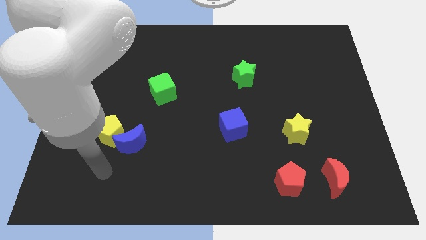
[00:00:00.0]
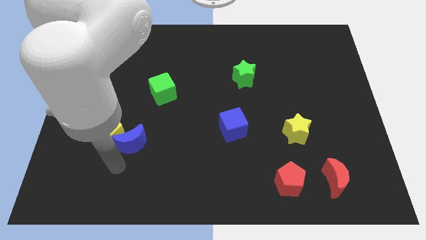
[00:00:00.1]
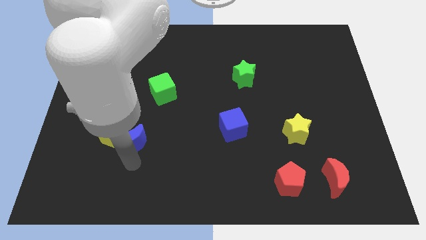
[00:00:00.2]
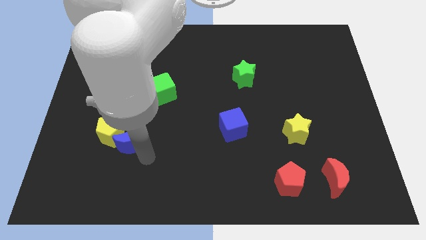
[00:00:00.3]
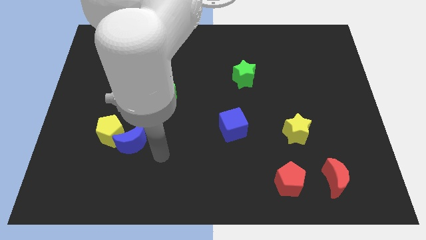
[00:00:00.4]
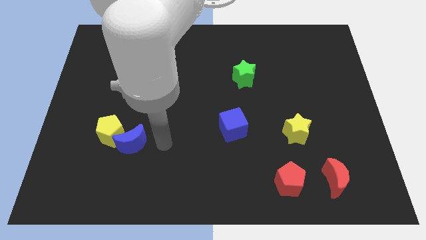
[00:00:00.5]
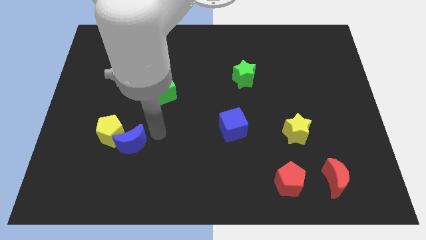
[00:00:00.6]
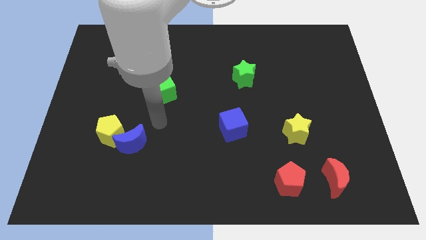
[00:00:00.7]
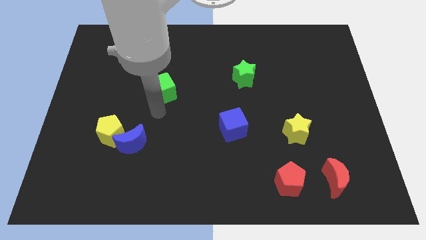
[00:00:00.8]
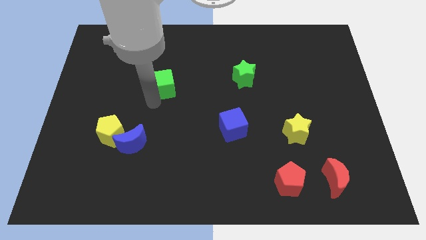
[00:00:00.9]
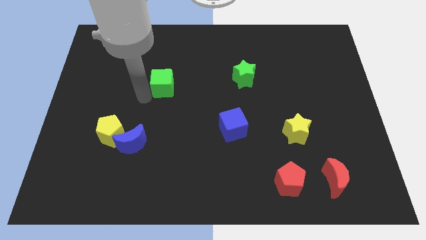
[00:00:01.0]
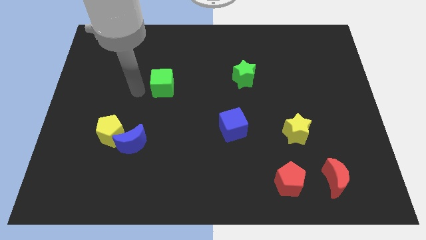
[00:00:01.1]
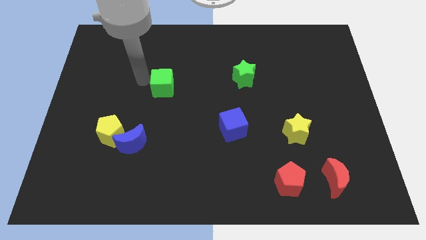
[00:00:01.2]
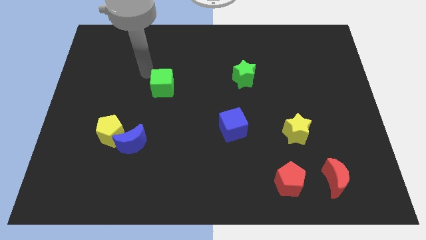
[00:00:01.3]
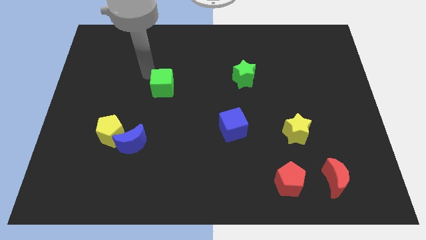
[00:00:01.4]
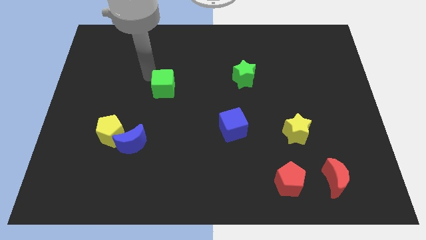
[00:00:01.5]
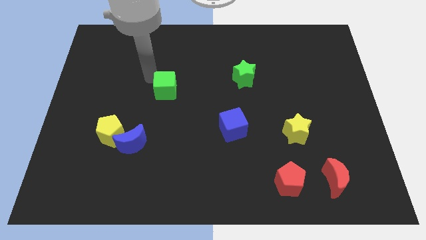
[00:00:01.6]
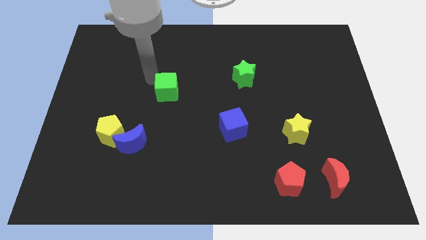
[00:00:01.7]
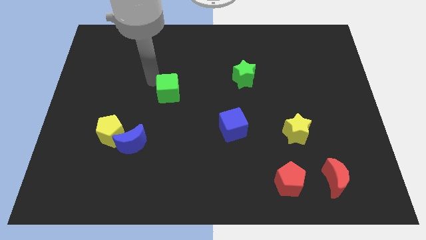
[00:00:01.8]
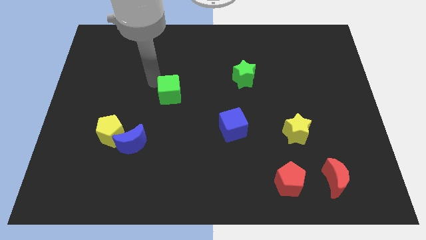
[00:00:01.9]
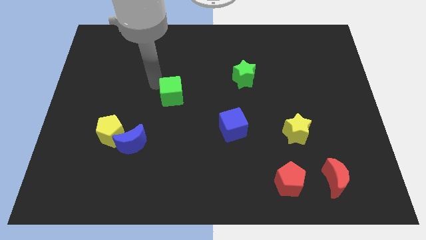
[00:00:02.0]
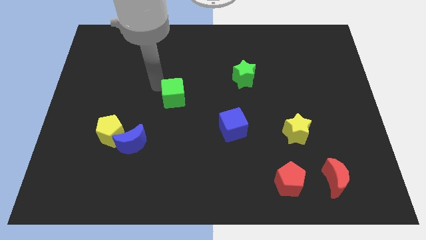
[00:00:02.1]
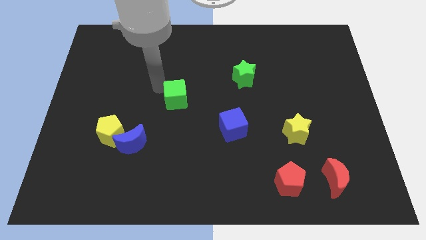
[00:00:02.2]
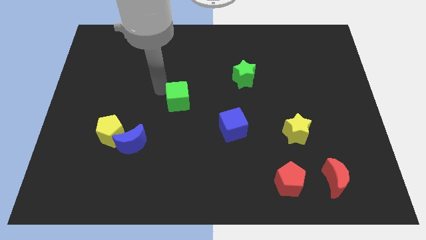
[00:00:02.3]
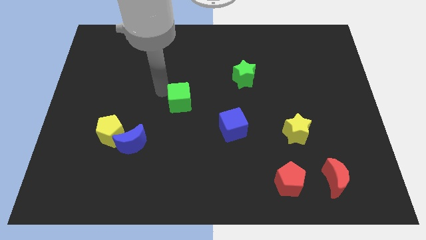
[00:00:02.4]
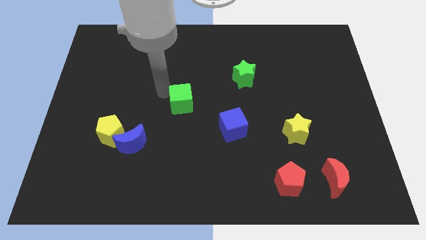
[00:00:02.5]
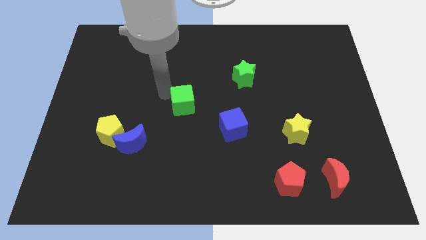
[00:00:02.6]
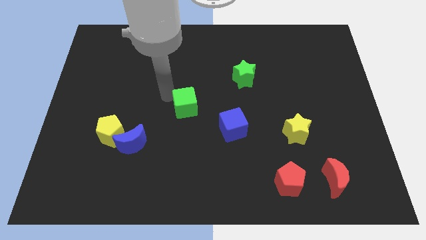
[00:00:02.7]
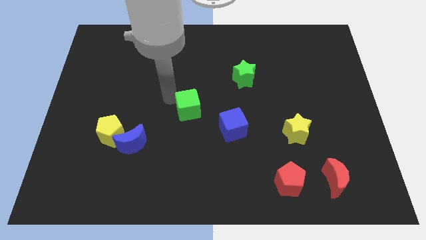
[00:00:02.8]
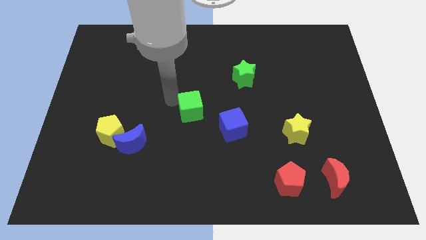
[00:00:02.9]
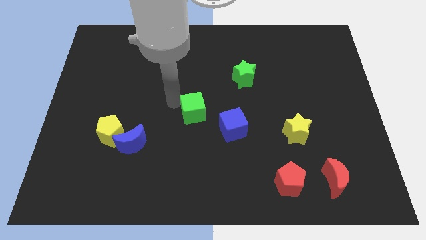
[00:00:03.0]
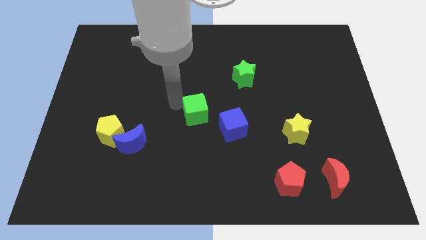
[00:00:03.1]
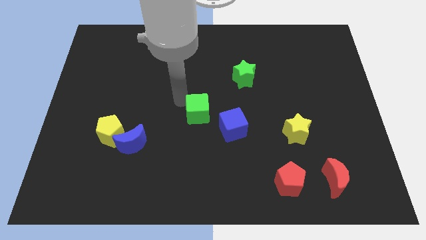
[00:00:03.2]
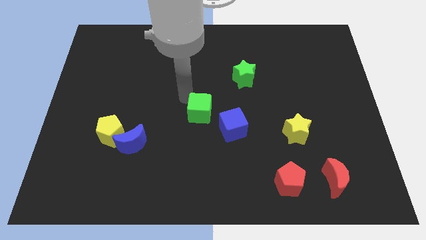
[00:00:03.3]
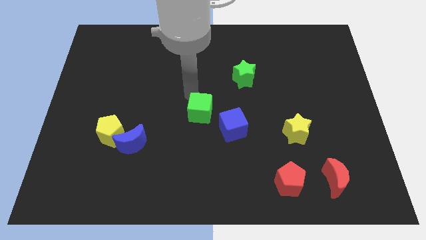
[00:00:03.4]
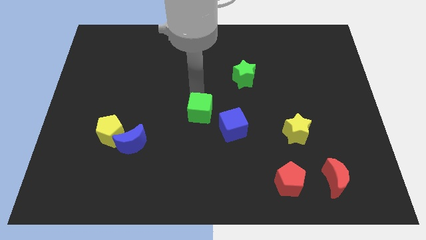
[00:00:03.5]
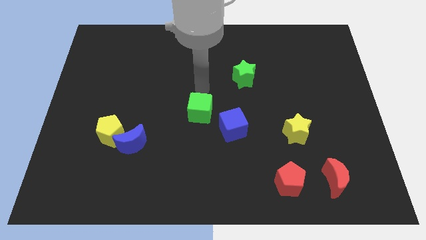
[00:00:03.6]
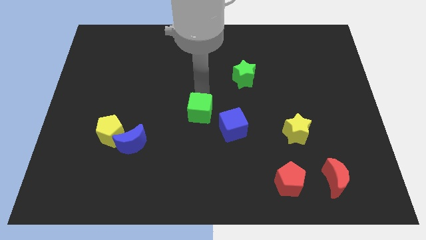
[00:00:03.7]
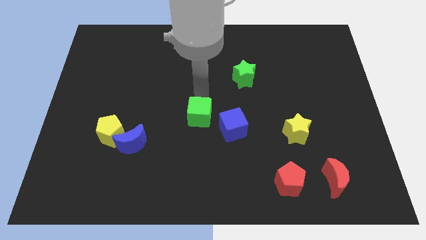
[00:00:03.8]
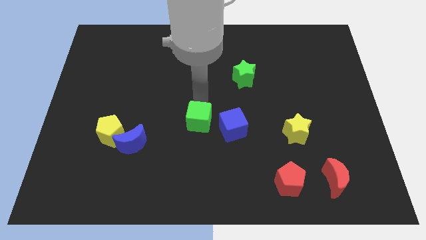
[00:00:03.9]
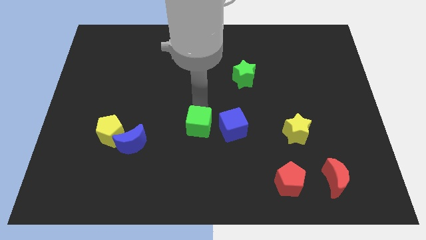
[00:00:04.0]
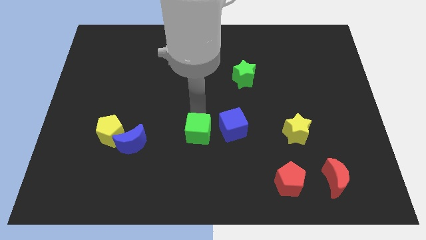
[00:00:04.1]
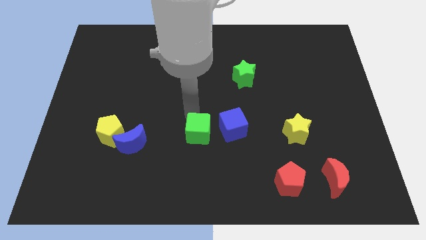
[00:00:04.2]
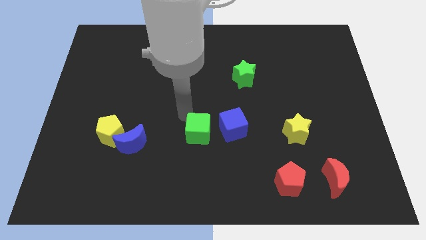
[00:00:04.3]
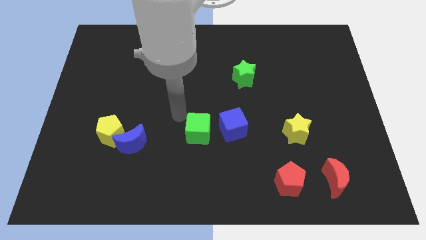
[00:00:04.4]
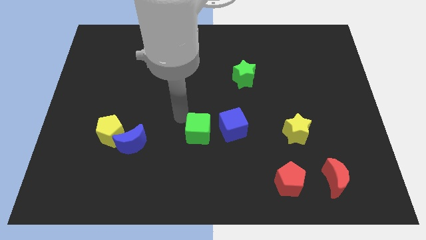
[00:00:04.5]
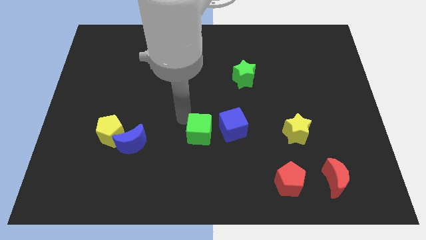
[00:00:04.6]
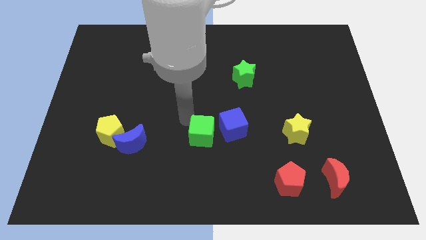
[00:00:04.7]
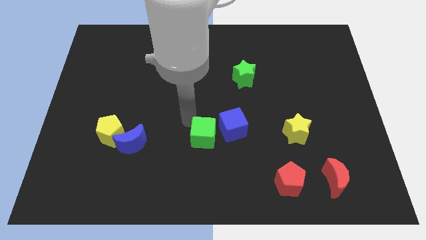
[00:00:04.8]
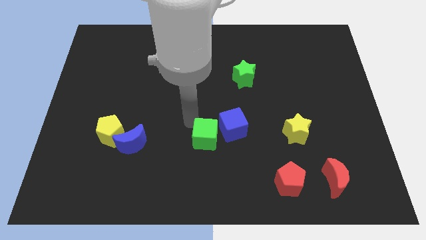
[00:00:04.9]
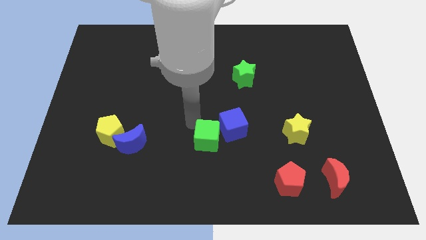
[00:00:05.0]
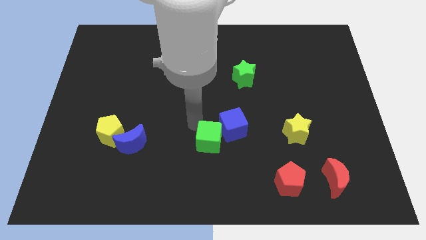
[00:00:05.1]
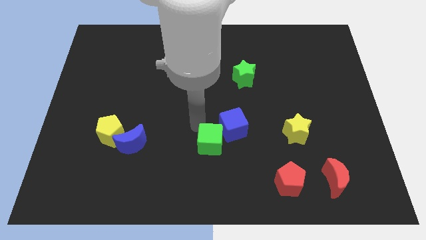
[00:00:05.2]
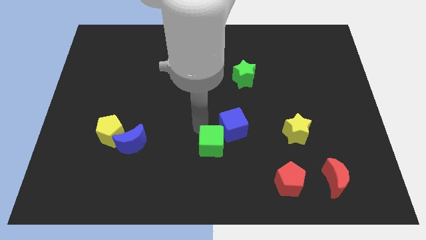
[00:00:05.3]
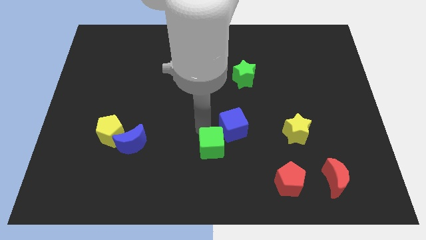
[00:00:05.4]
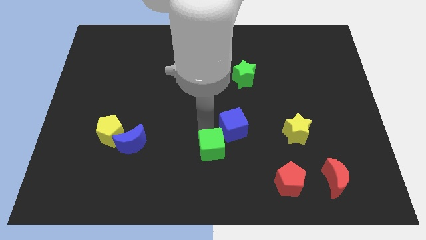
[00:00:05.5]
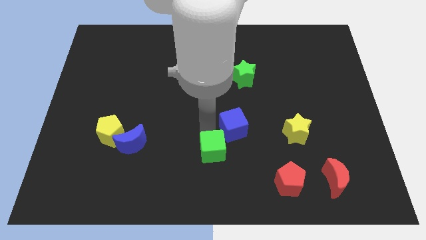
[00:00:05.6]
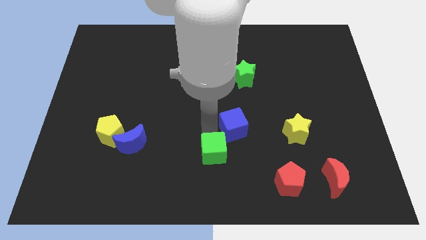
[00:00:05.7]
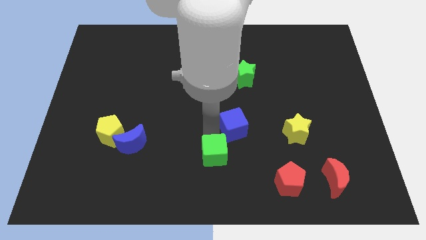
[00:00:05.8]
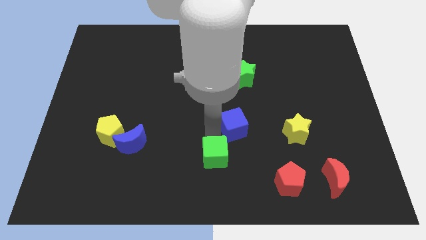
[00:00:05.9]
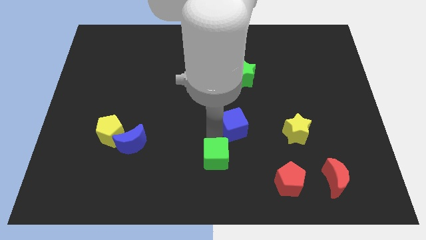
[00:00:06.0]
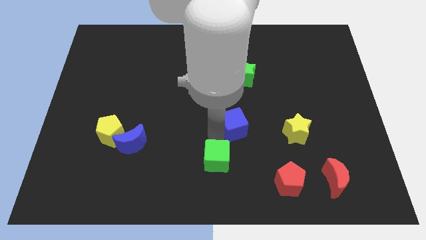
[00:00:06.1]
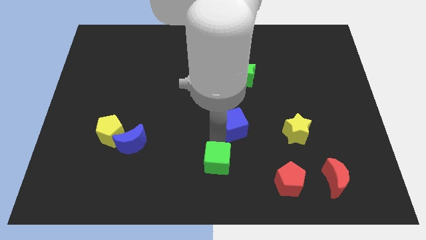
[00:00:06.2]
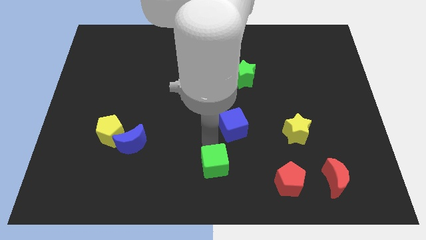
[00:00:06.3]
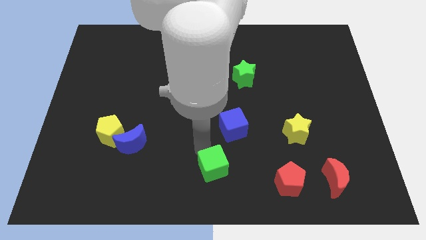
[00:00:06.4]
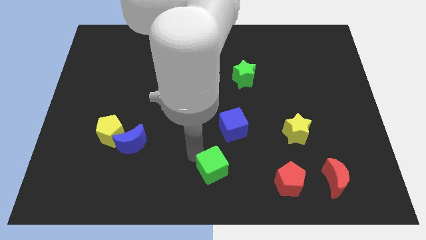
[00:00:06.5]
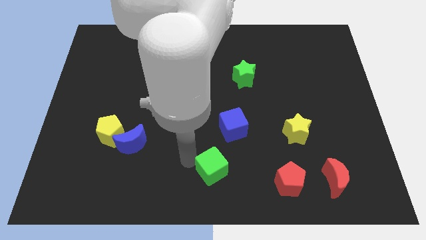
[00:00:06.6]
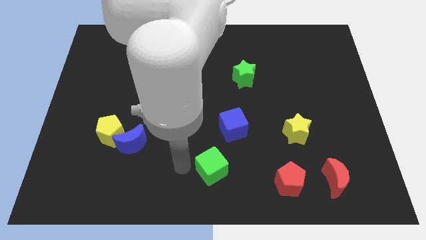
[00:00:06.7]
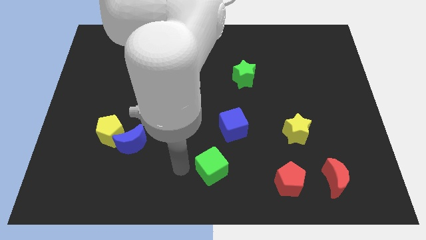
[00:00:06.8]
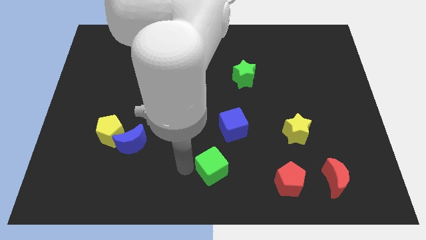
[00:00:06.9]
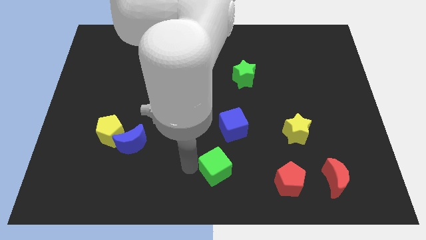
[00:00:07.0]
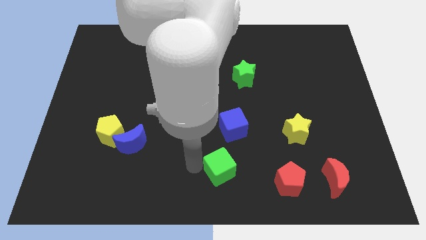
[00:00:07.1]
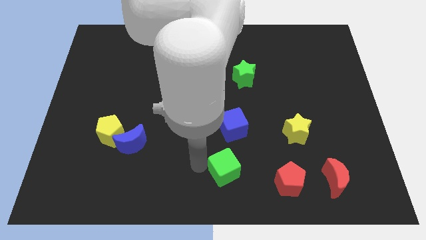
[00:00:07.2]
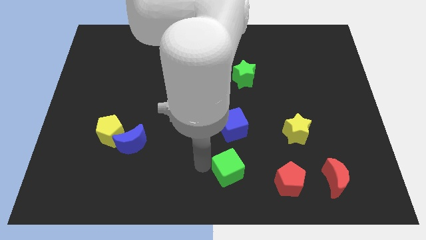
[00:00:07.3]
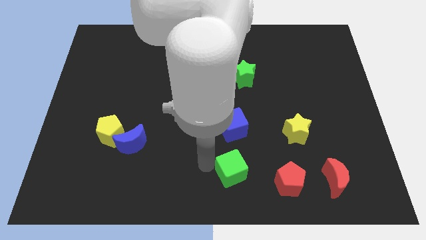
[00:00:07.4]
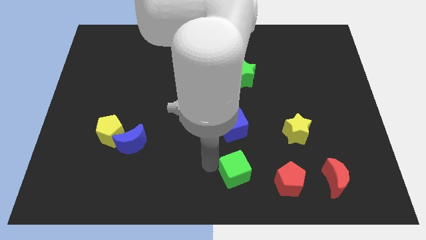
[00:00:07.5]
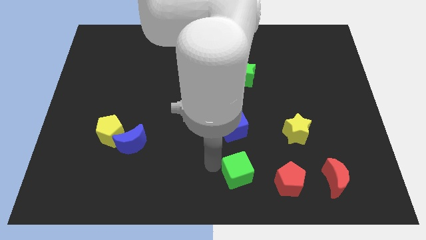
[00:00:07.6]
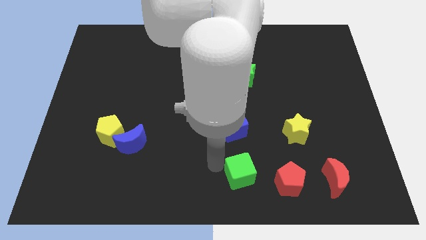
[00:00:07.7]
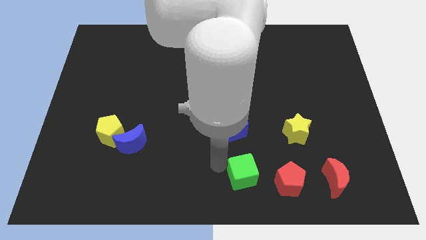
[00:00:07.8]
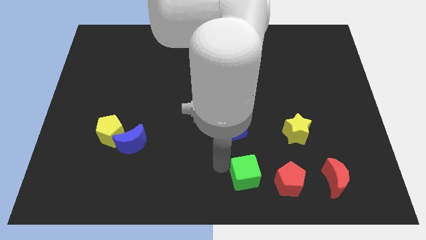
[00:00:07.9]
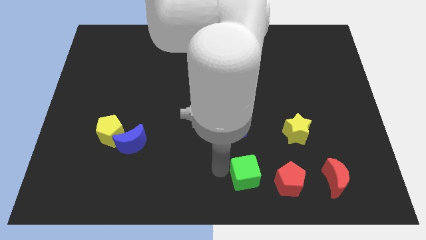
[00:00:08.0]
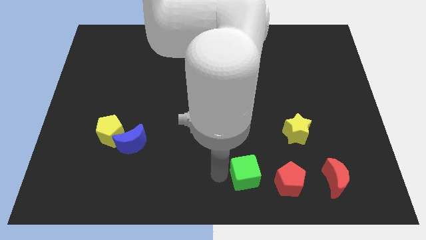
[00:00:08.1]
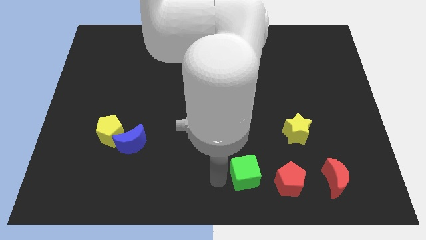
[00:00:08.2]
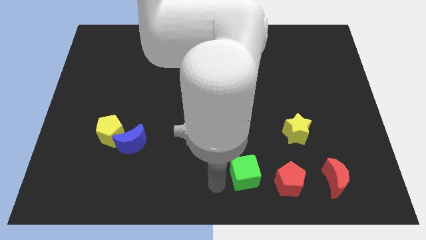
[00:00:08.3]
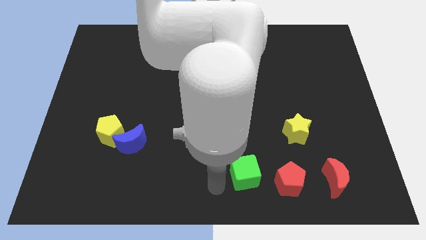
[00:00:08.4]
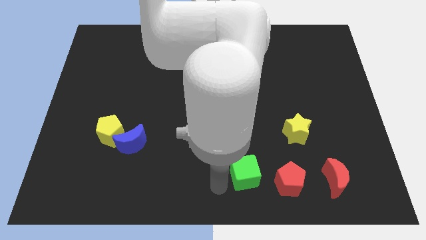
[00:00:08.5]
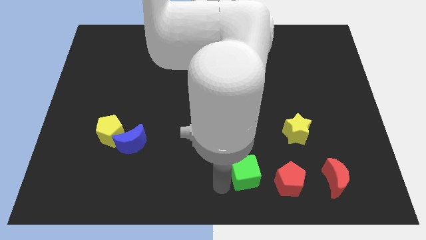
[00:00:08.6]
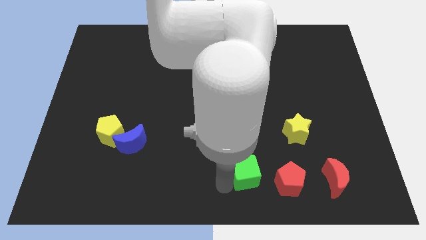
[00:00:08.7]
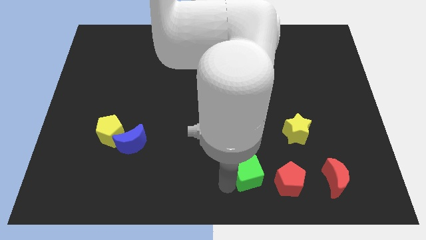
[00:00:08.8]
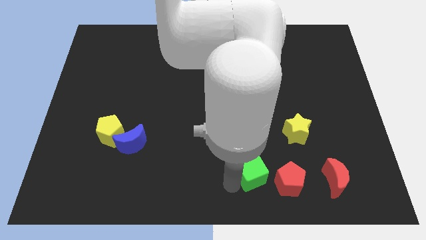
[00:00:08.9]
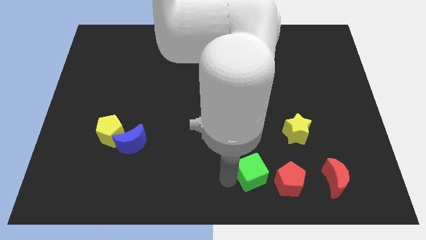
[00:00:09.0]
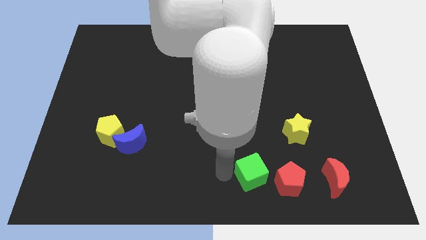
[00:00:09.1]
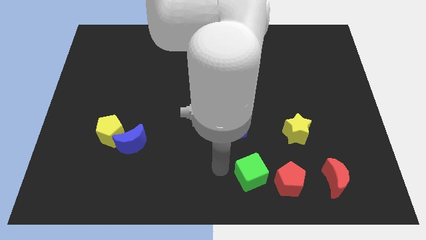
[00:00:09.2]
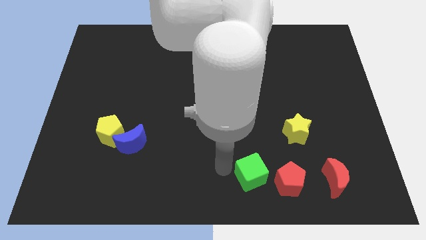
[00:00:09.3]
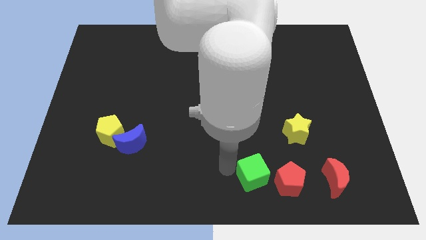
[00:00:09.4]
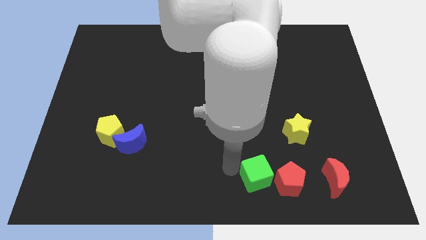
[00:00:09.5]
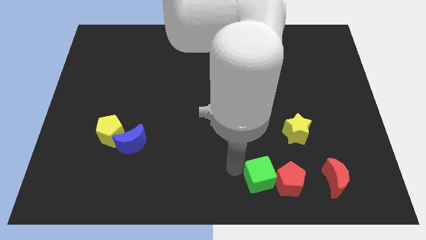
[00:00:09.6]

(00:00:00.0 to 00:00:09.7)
move the green cube to the red pentagon
